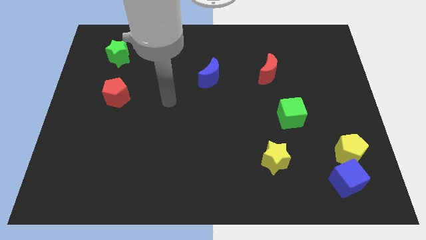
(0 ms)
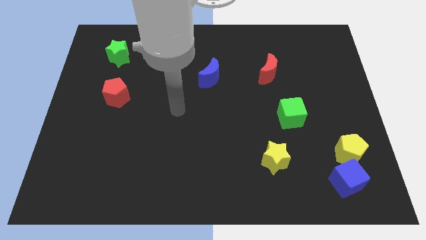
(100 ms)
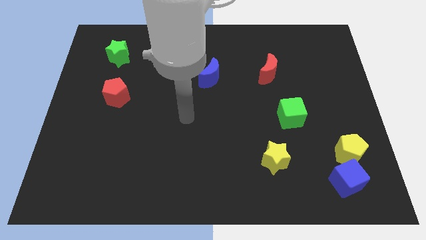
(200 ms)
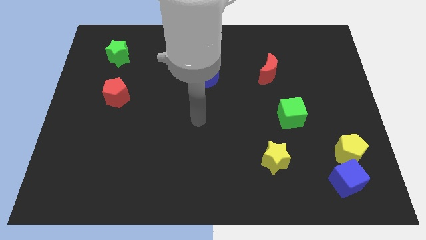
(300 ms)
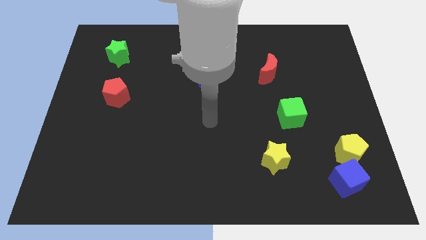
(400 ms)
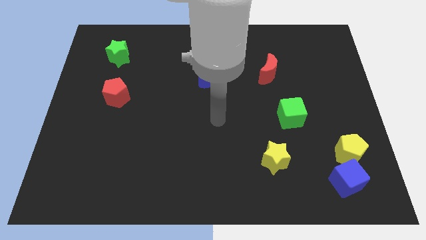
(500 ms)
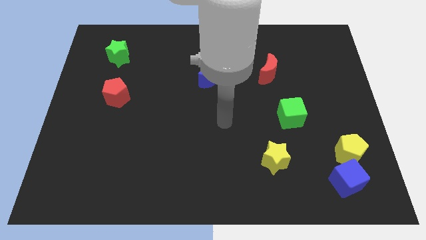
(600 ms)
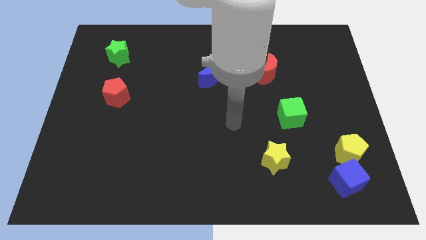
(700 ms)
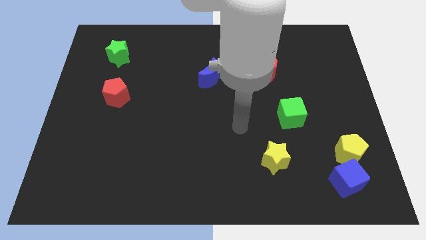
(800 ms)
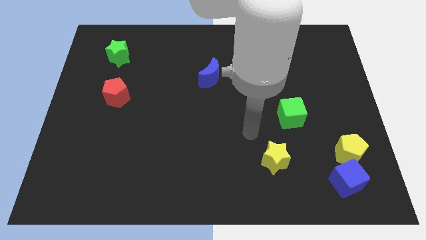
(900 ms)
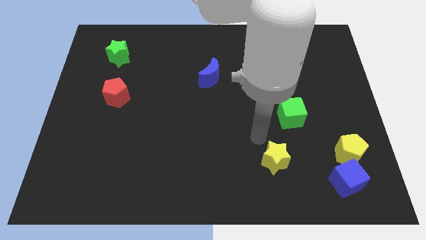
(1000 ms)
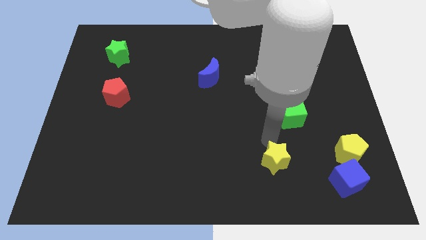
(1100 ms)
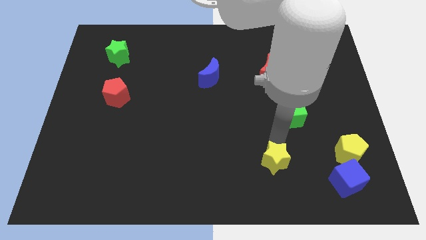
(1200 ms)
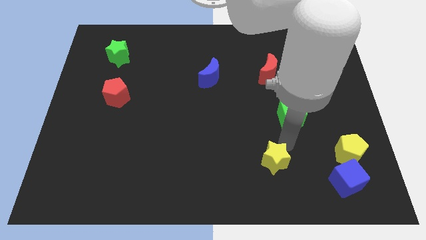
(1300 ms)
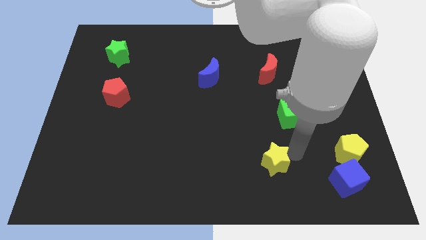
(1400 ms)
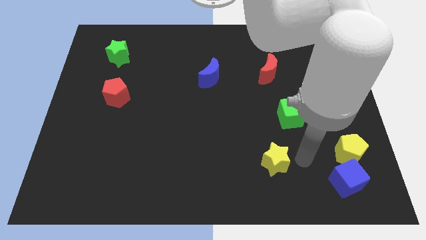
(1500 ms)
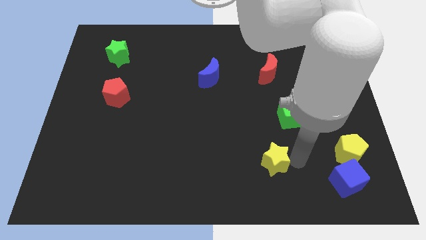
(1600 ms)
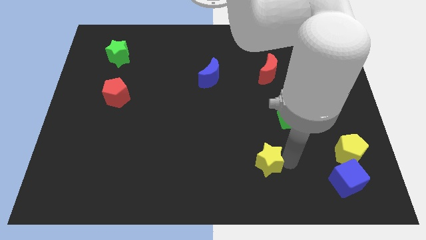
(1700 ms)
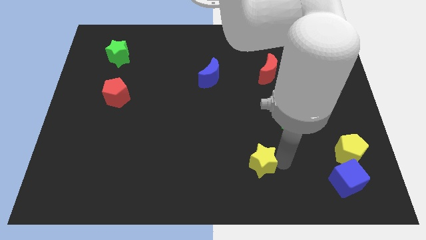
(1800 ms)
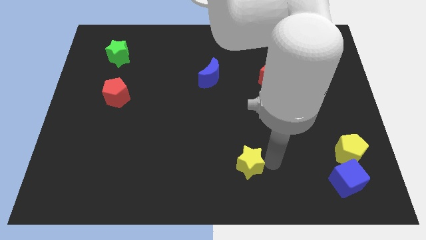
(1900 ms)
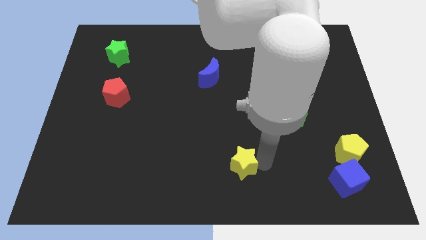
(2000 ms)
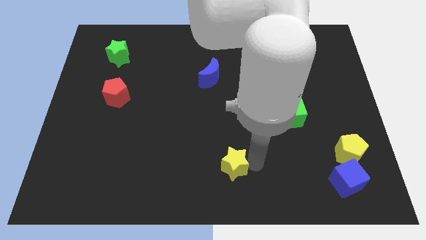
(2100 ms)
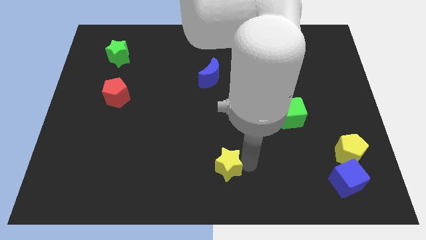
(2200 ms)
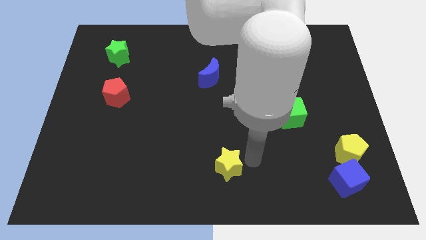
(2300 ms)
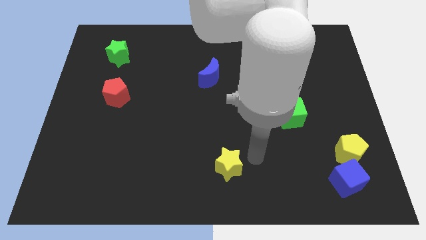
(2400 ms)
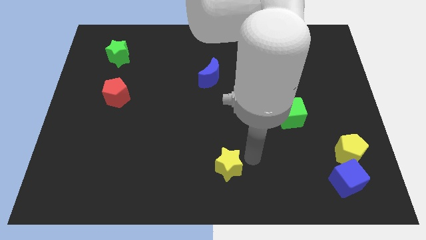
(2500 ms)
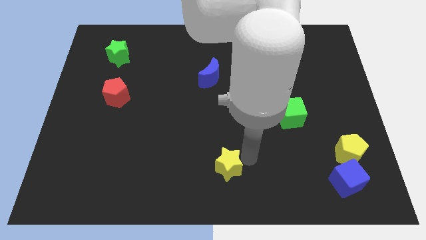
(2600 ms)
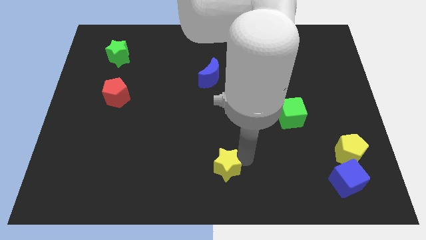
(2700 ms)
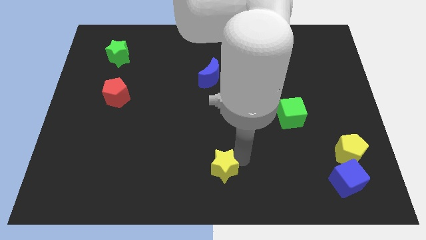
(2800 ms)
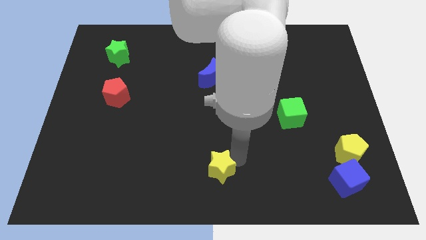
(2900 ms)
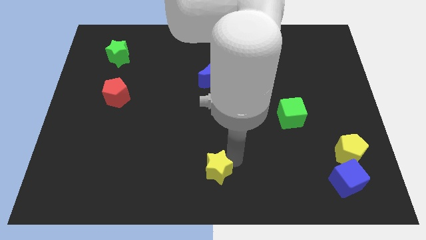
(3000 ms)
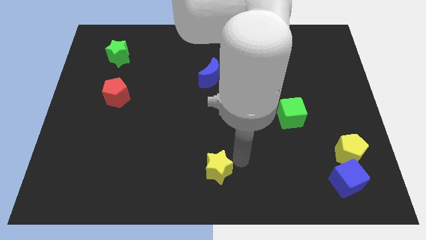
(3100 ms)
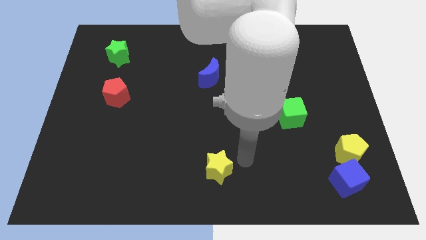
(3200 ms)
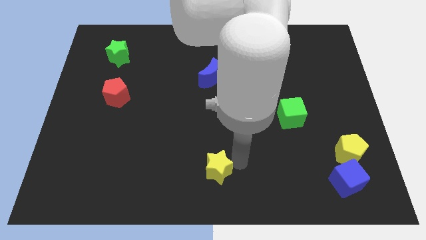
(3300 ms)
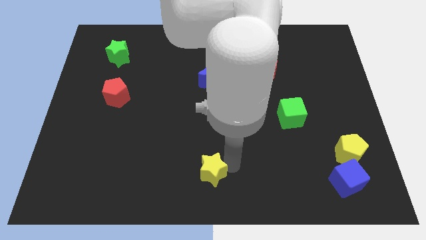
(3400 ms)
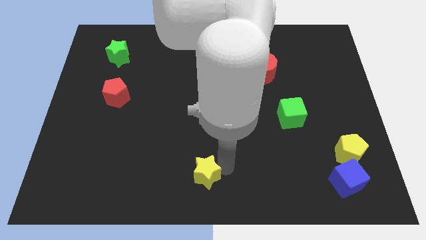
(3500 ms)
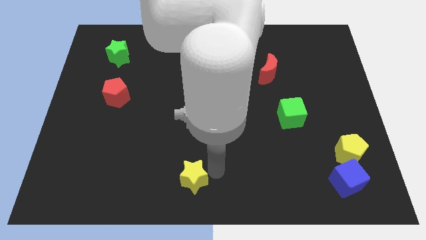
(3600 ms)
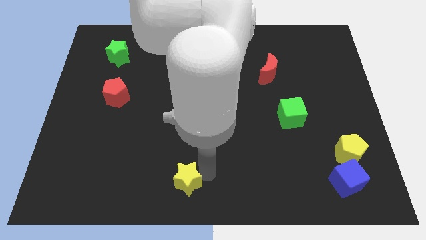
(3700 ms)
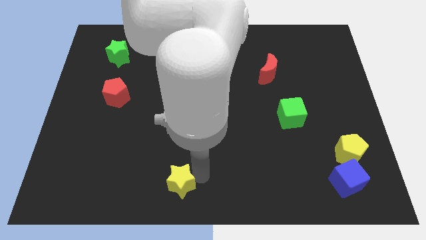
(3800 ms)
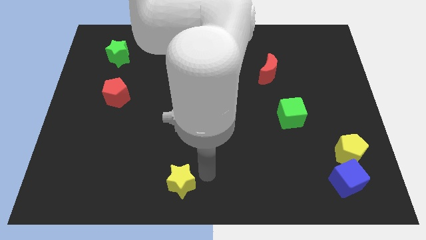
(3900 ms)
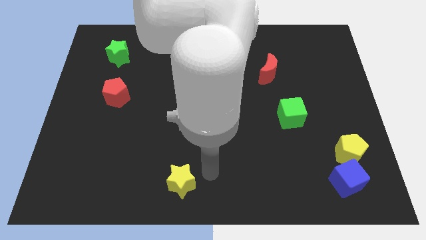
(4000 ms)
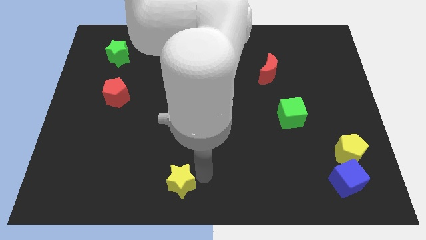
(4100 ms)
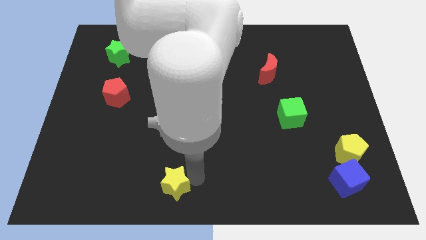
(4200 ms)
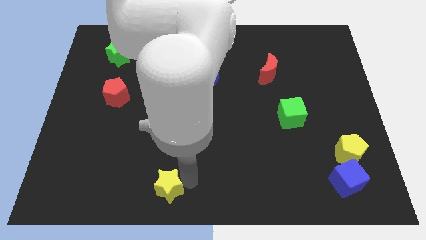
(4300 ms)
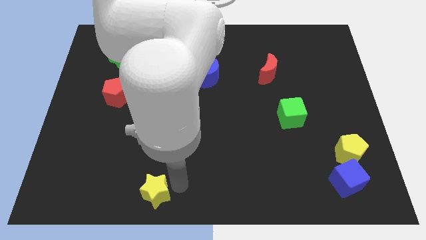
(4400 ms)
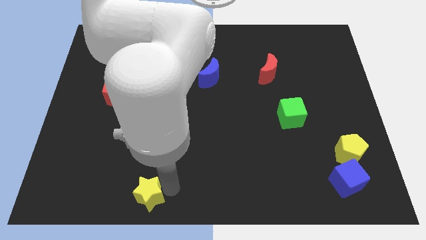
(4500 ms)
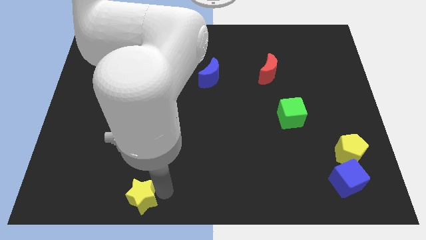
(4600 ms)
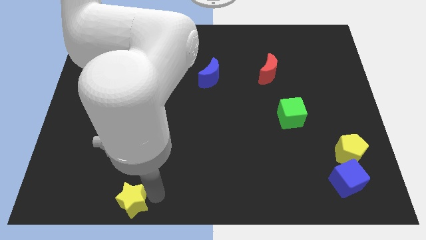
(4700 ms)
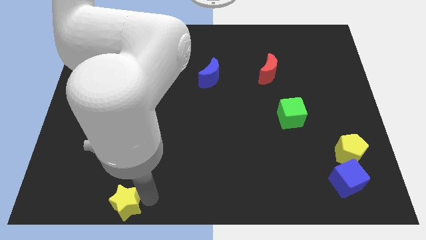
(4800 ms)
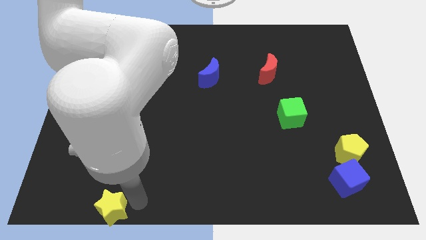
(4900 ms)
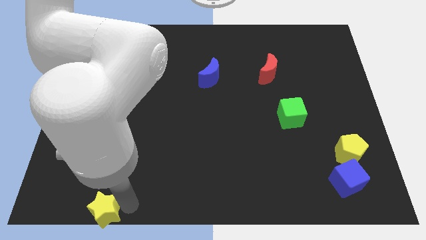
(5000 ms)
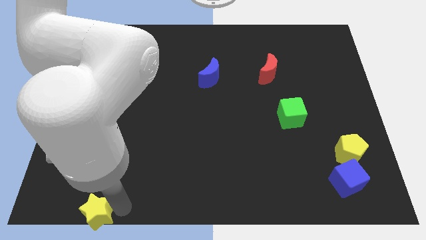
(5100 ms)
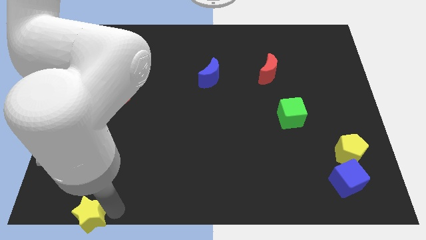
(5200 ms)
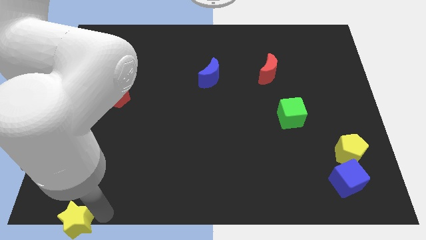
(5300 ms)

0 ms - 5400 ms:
put the yellow star to the bottom left of the board

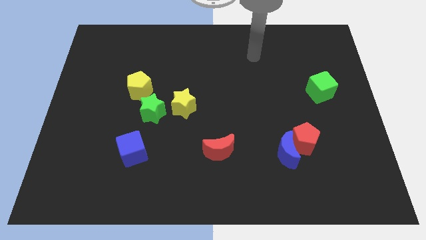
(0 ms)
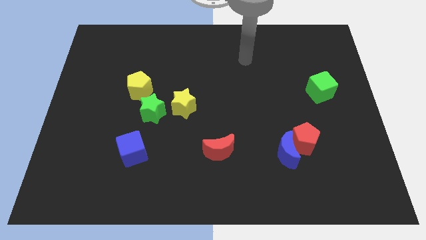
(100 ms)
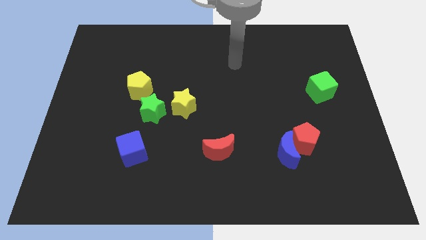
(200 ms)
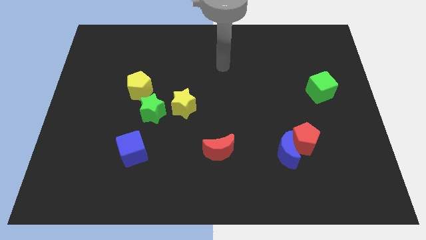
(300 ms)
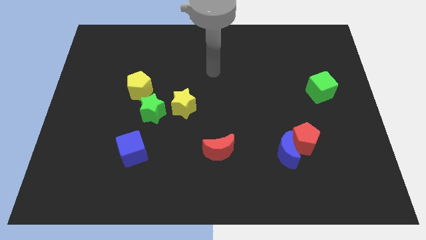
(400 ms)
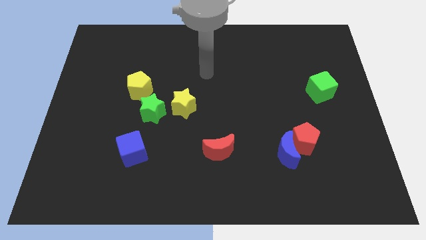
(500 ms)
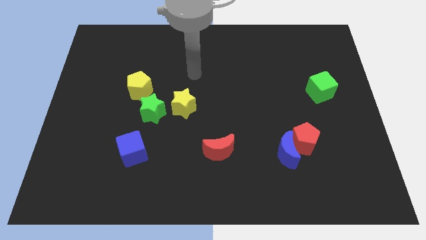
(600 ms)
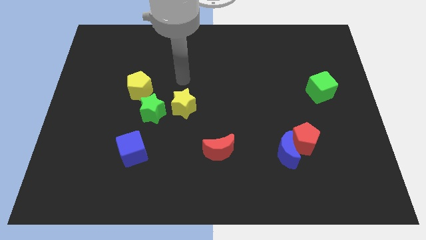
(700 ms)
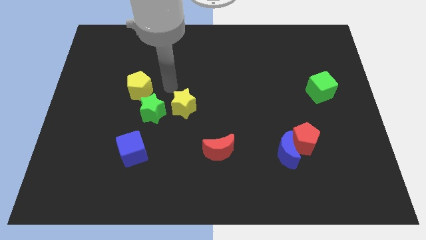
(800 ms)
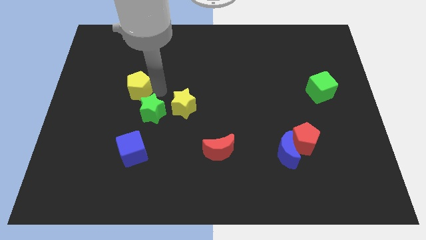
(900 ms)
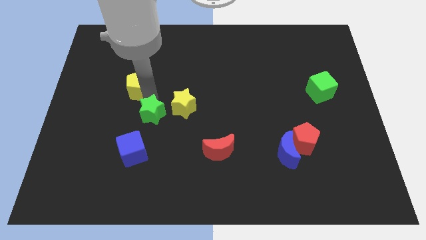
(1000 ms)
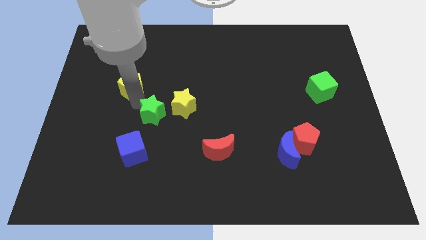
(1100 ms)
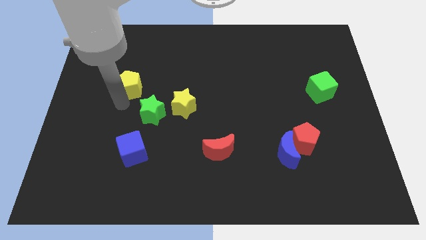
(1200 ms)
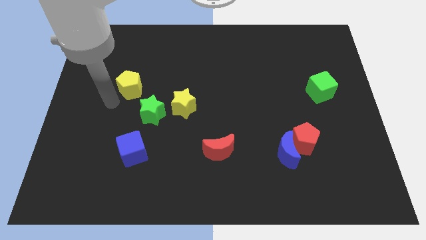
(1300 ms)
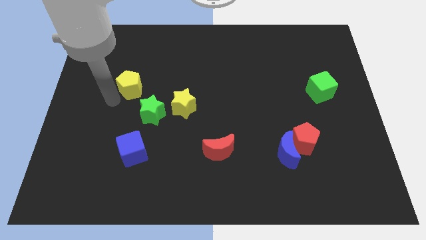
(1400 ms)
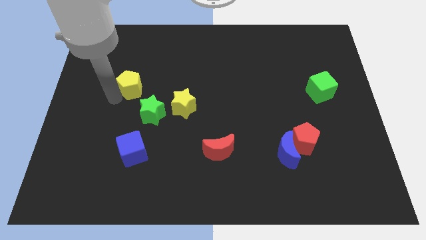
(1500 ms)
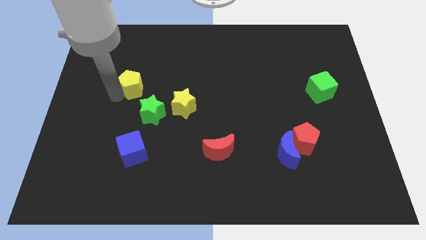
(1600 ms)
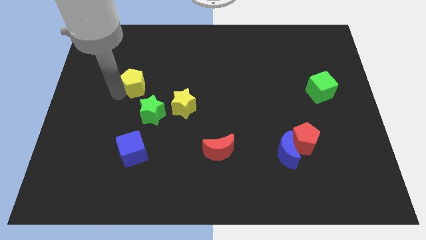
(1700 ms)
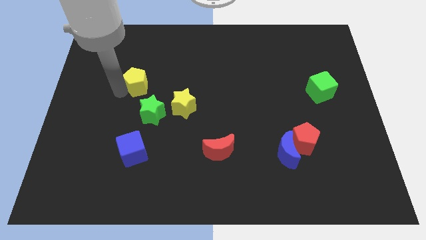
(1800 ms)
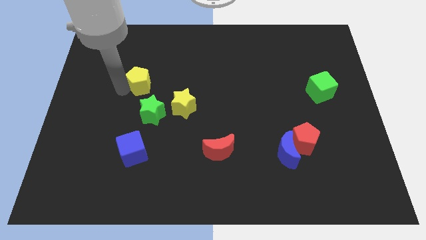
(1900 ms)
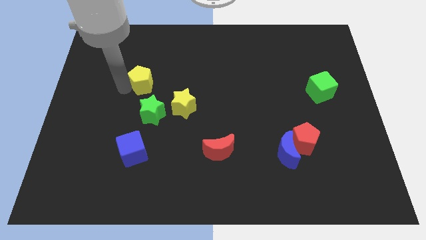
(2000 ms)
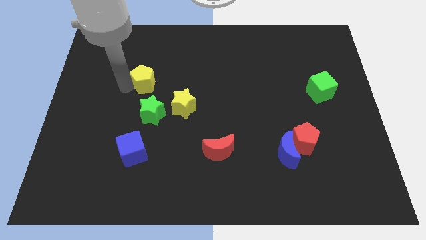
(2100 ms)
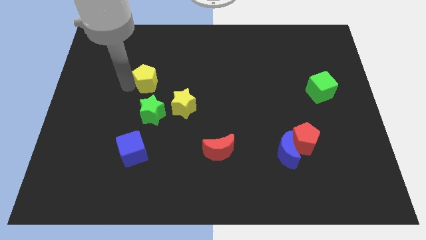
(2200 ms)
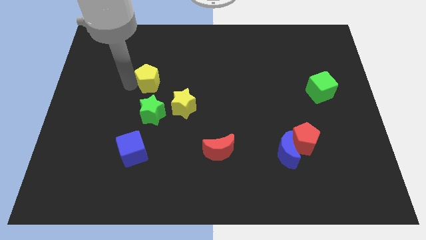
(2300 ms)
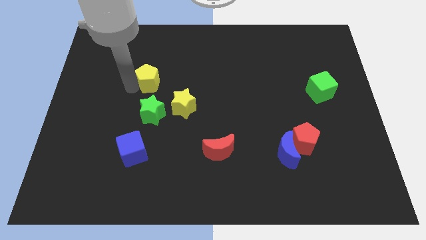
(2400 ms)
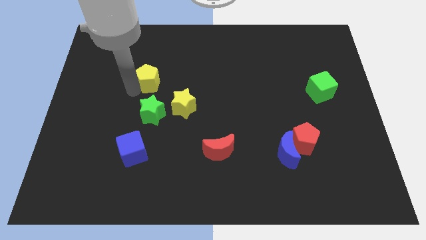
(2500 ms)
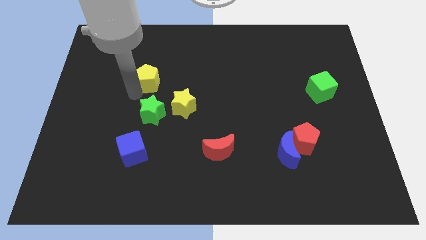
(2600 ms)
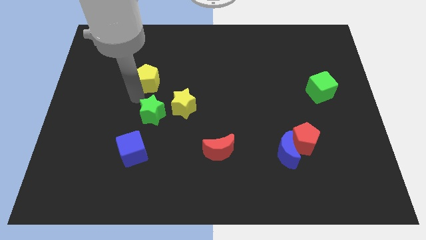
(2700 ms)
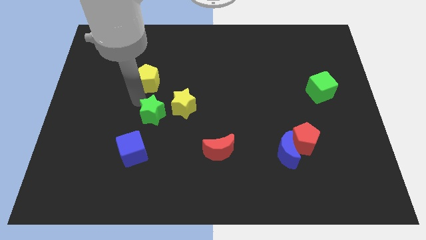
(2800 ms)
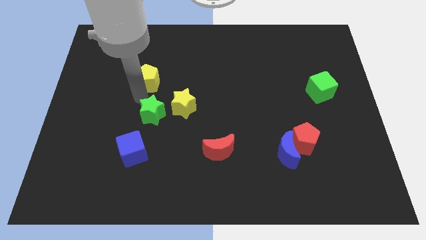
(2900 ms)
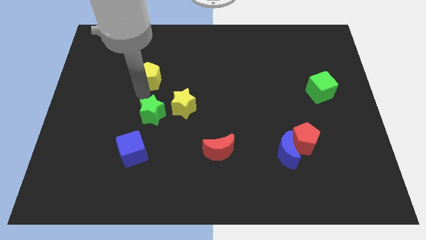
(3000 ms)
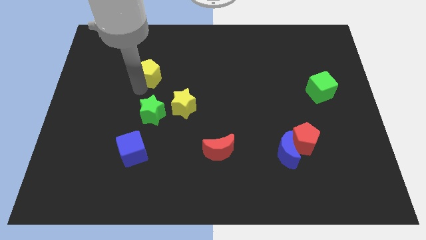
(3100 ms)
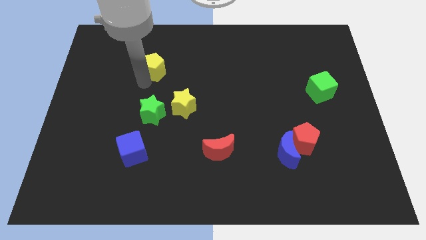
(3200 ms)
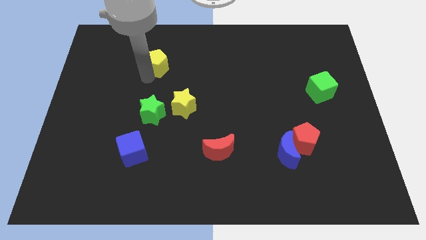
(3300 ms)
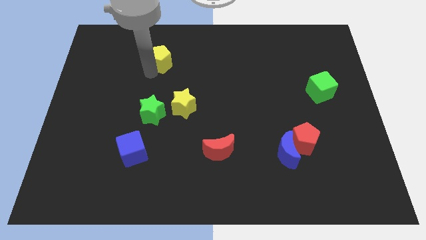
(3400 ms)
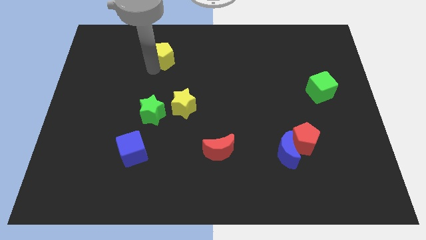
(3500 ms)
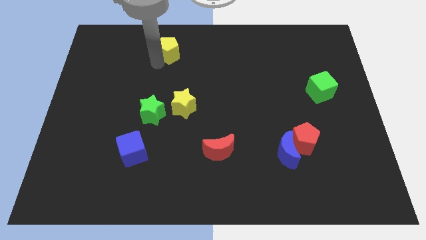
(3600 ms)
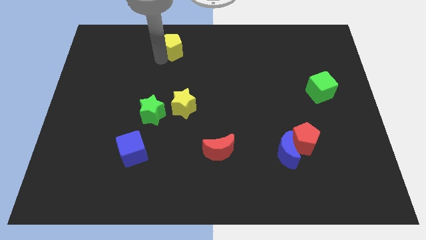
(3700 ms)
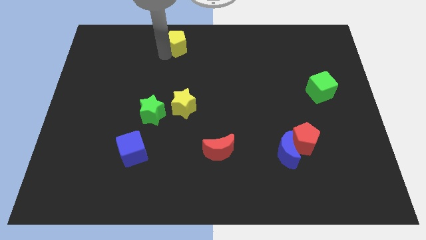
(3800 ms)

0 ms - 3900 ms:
slide the yellow pentagon to the top side
